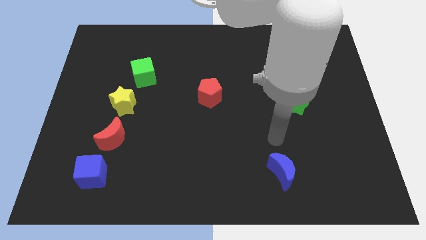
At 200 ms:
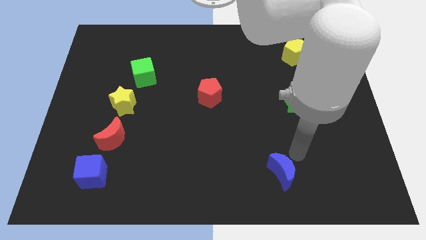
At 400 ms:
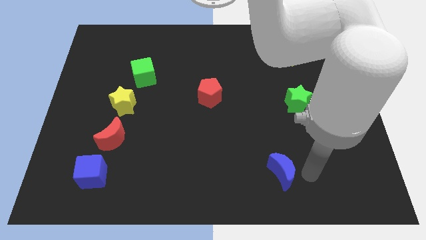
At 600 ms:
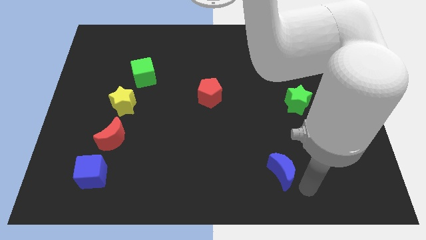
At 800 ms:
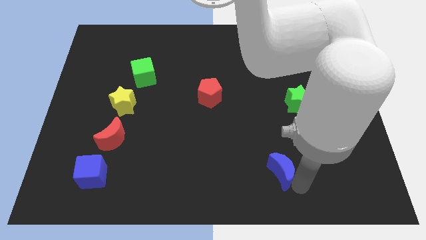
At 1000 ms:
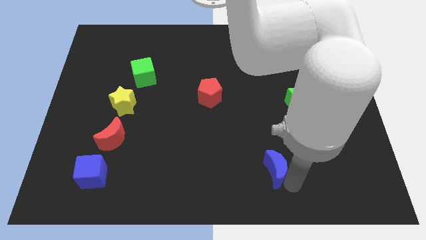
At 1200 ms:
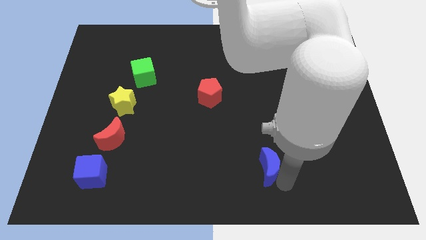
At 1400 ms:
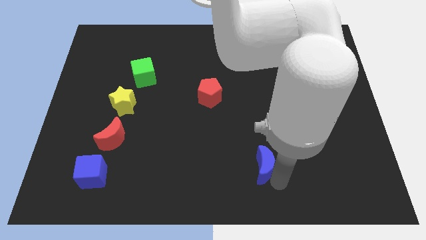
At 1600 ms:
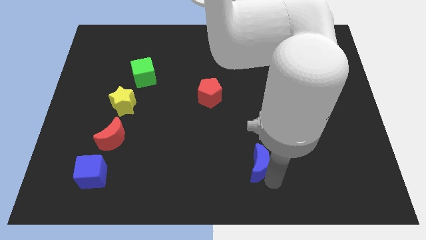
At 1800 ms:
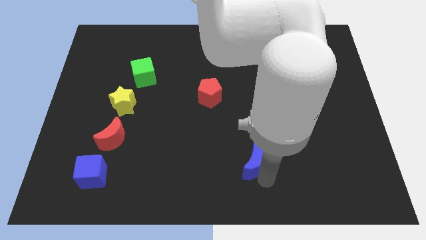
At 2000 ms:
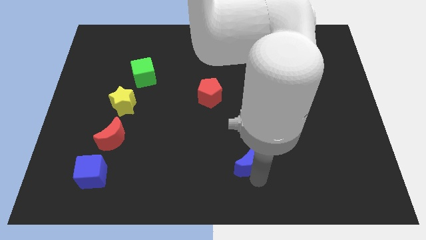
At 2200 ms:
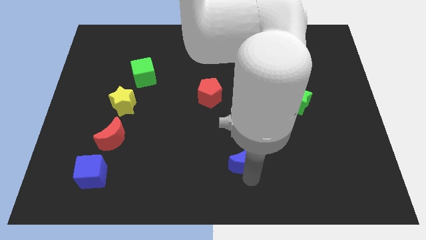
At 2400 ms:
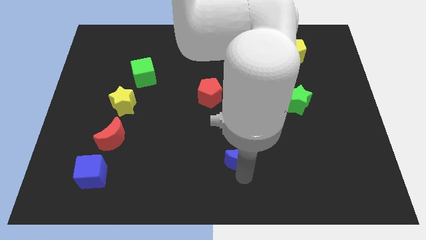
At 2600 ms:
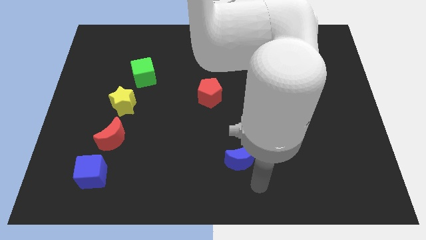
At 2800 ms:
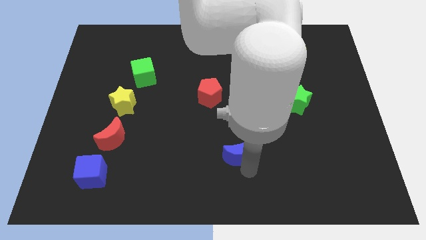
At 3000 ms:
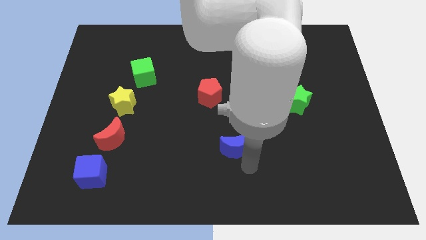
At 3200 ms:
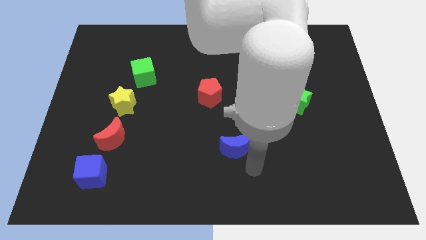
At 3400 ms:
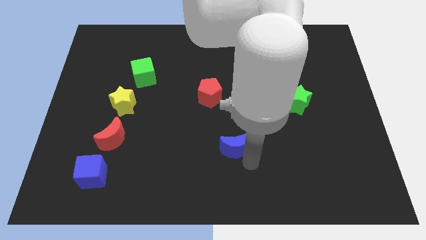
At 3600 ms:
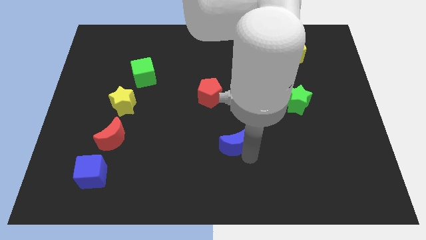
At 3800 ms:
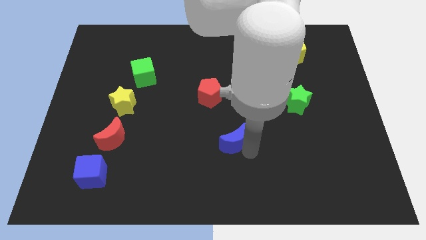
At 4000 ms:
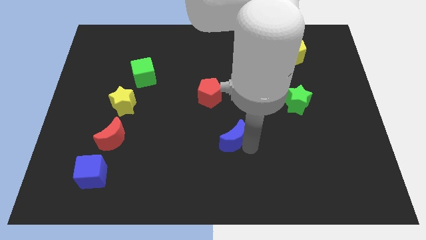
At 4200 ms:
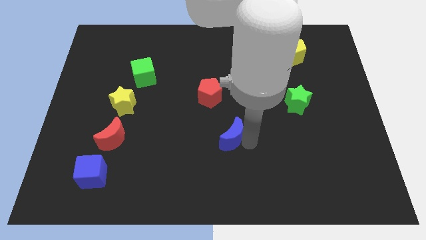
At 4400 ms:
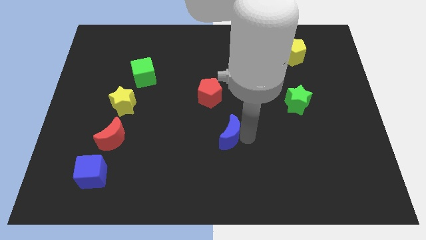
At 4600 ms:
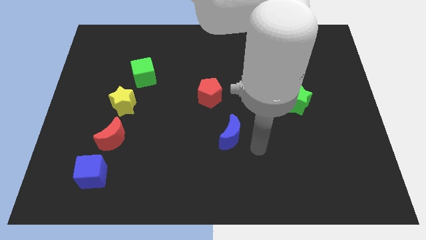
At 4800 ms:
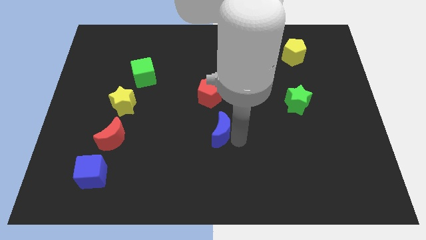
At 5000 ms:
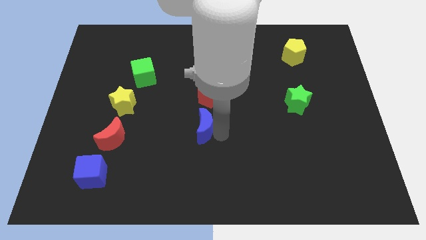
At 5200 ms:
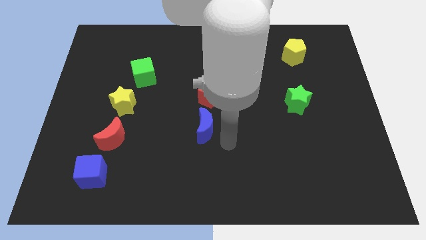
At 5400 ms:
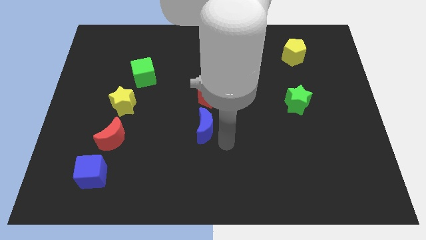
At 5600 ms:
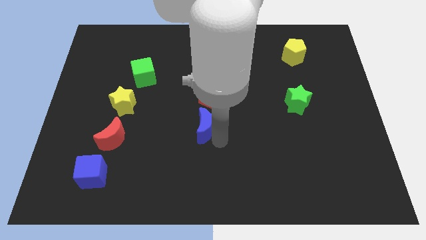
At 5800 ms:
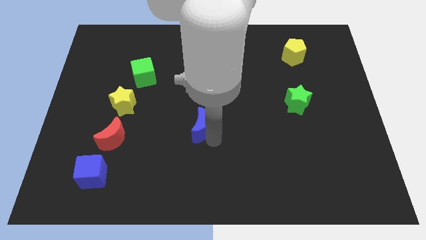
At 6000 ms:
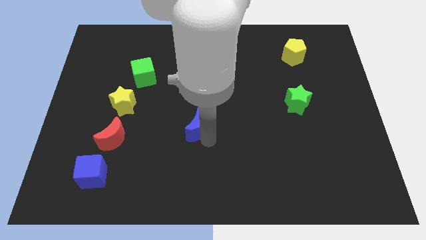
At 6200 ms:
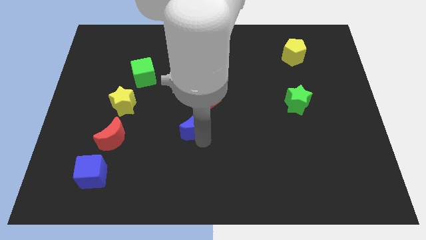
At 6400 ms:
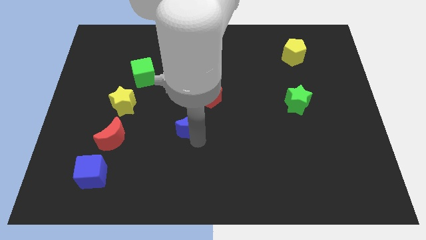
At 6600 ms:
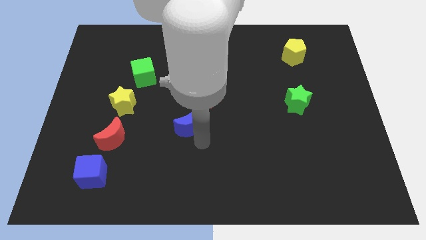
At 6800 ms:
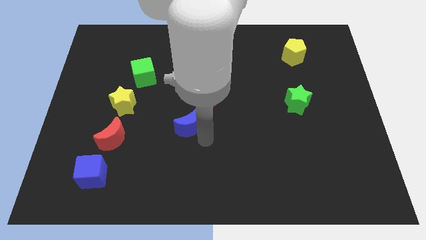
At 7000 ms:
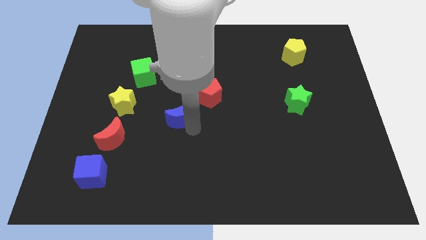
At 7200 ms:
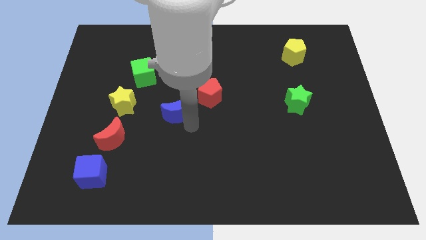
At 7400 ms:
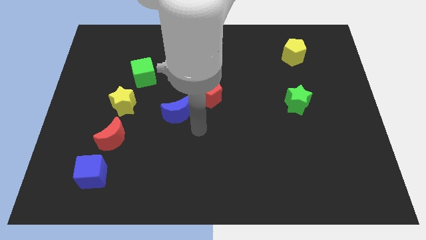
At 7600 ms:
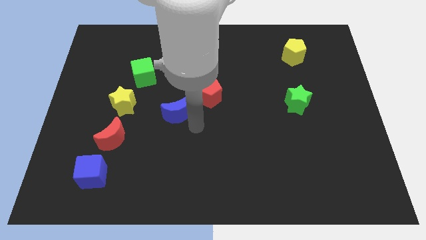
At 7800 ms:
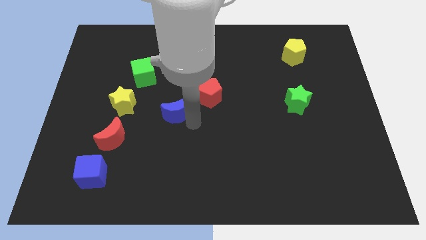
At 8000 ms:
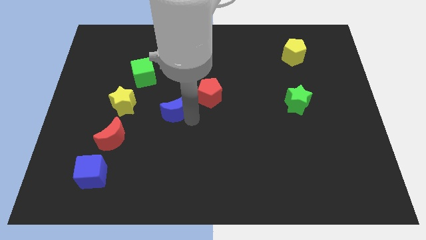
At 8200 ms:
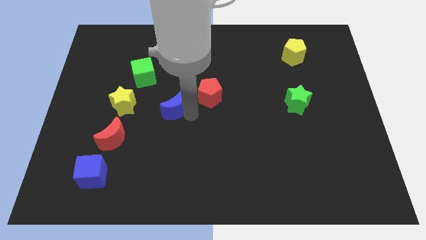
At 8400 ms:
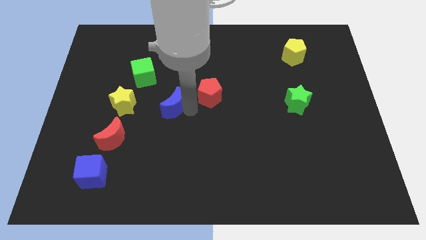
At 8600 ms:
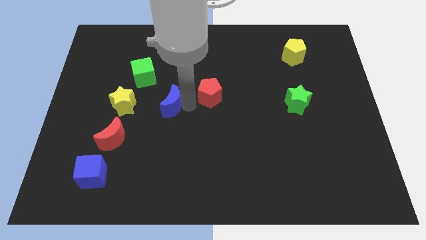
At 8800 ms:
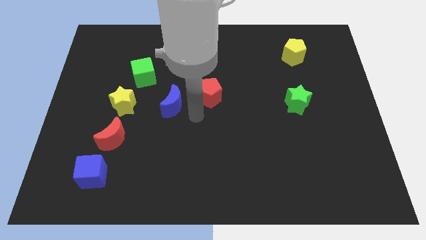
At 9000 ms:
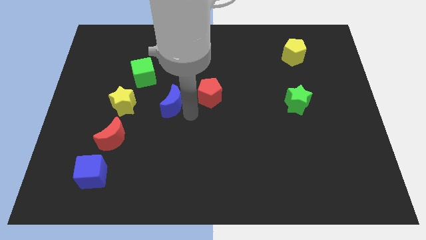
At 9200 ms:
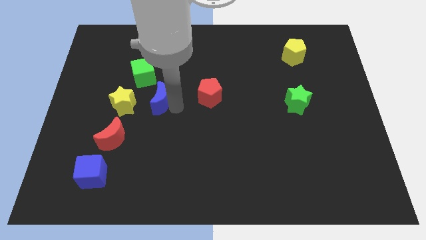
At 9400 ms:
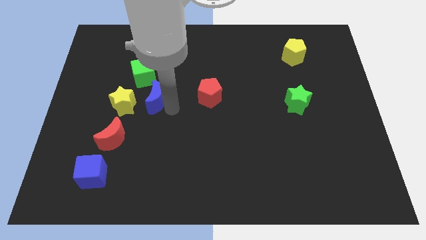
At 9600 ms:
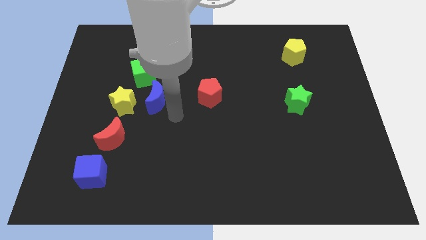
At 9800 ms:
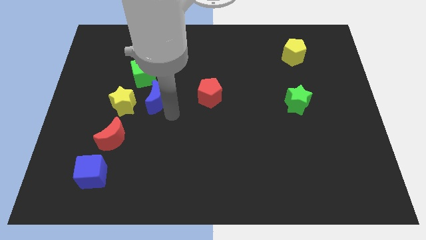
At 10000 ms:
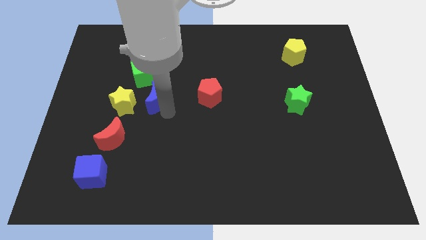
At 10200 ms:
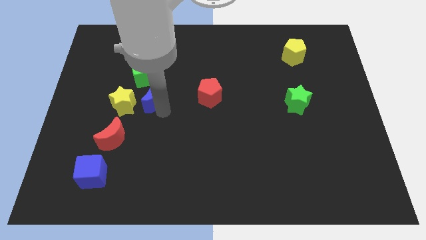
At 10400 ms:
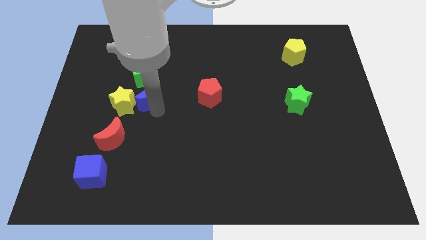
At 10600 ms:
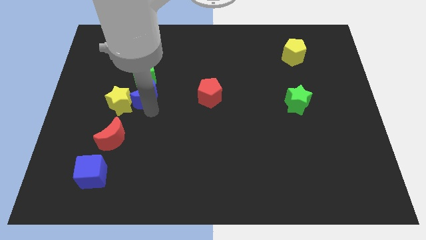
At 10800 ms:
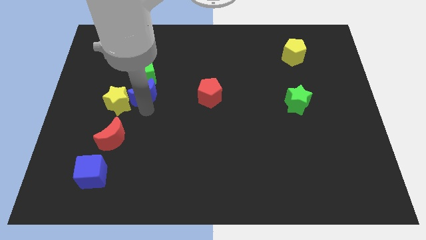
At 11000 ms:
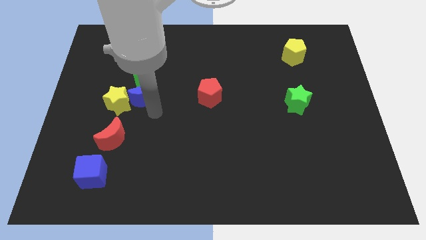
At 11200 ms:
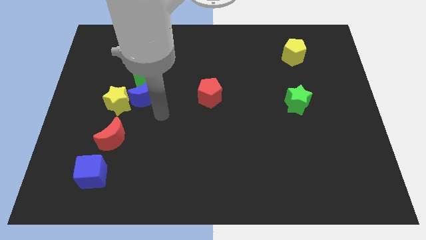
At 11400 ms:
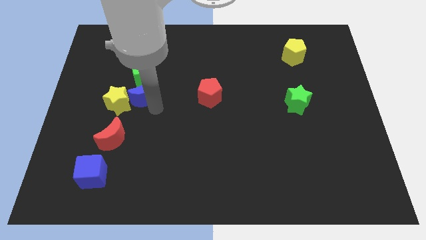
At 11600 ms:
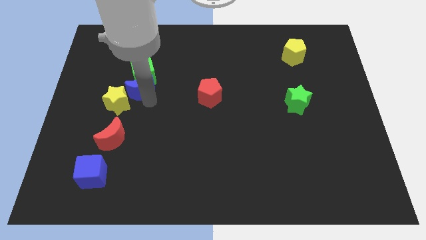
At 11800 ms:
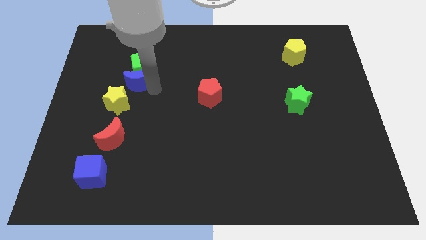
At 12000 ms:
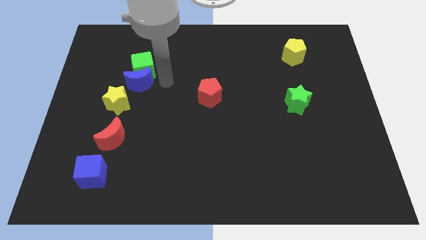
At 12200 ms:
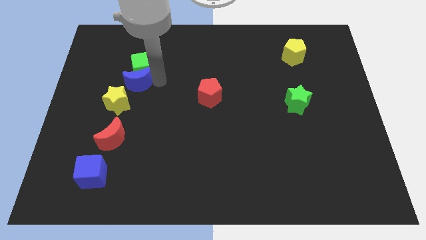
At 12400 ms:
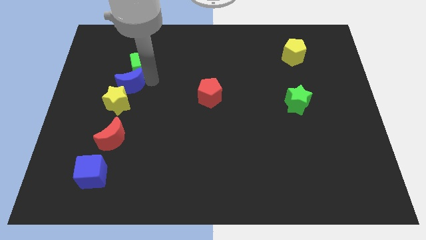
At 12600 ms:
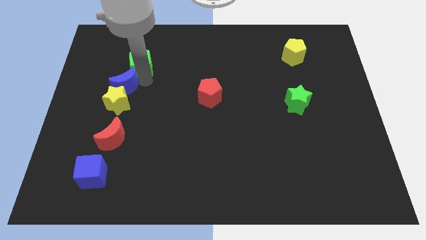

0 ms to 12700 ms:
slide the blue moon to the top left side of the yellow star

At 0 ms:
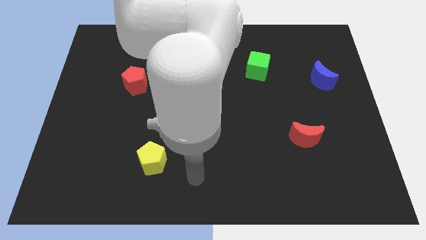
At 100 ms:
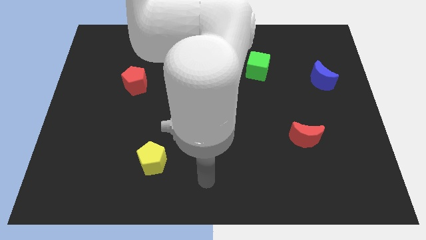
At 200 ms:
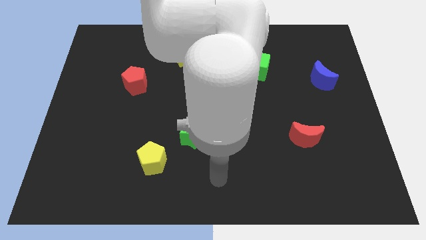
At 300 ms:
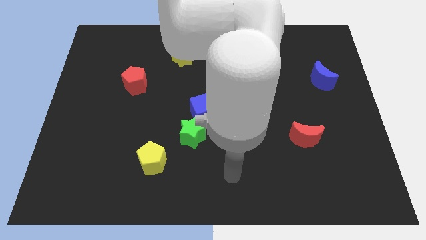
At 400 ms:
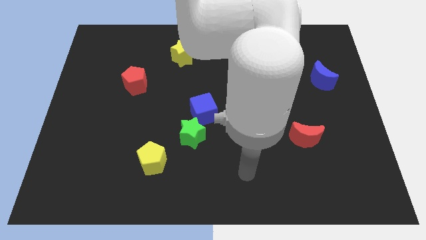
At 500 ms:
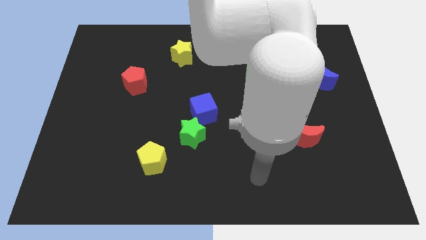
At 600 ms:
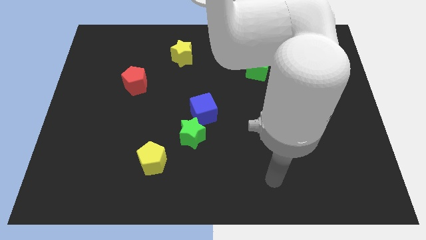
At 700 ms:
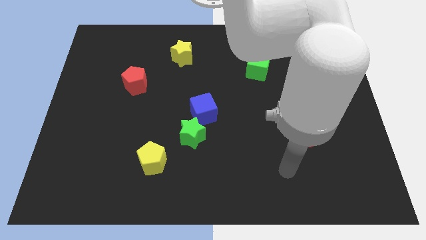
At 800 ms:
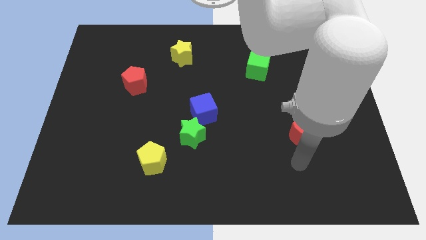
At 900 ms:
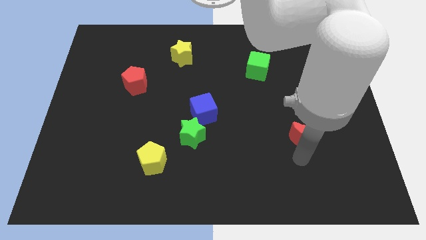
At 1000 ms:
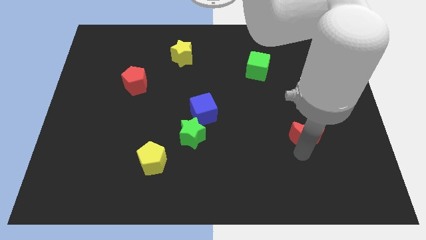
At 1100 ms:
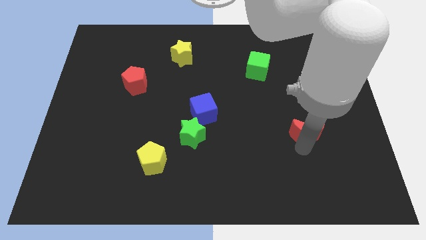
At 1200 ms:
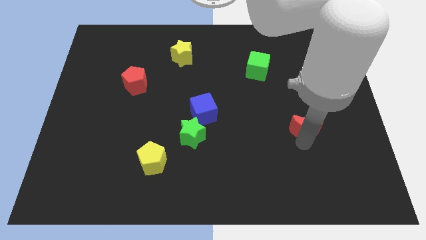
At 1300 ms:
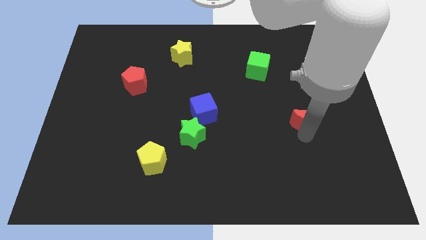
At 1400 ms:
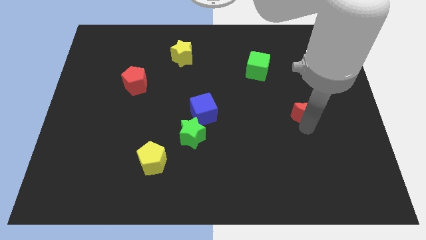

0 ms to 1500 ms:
slide the red moon diagonally down and to the left of the blue moon

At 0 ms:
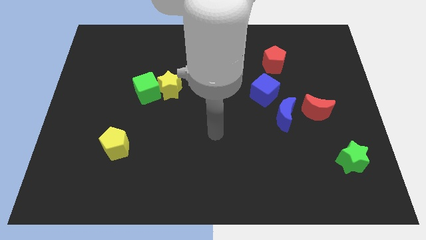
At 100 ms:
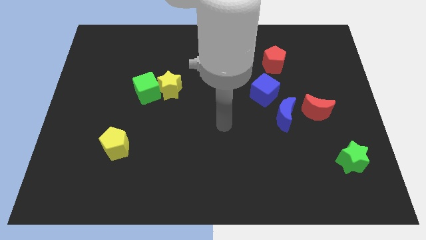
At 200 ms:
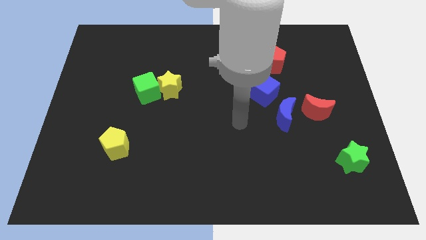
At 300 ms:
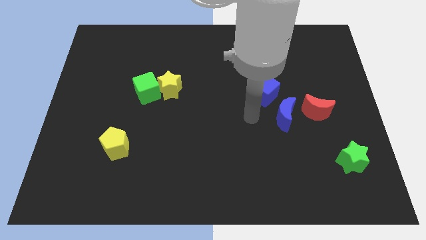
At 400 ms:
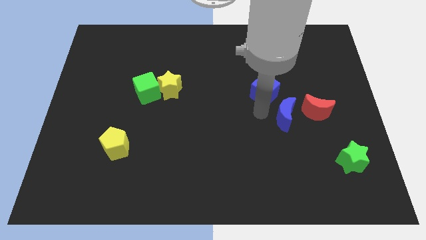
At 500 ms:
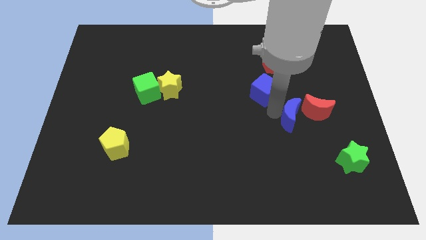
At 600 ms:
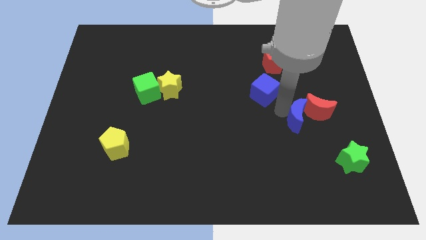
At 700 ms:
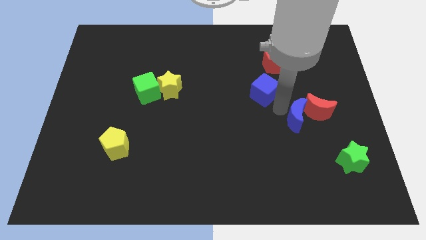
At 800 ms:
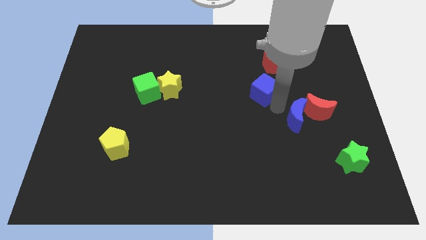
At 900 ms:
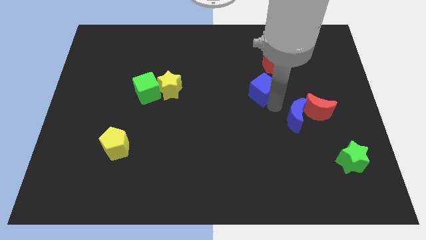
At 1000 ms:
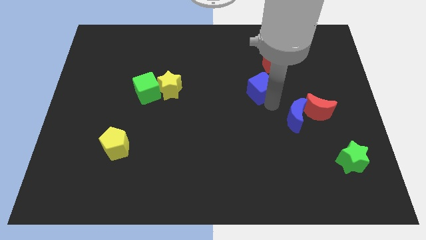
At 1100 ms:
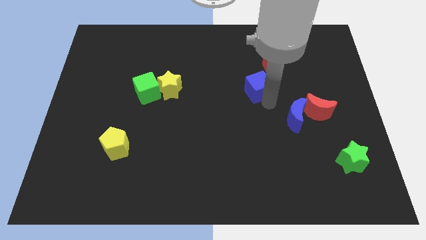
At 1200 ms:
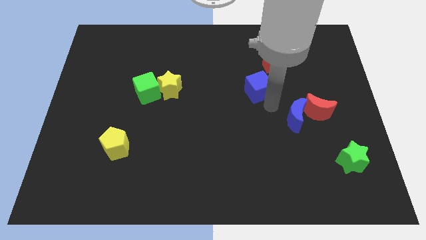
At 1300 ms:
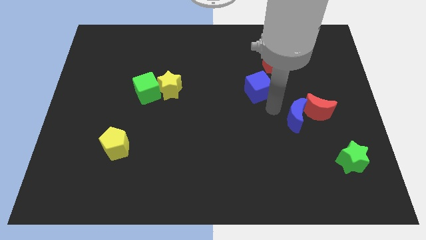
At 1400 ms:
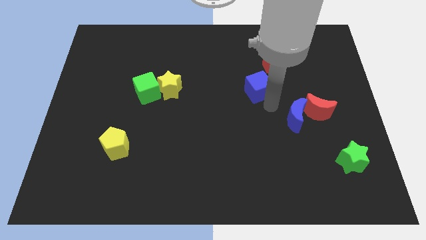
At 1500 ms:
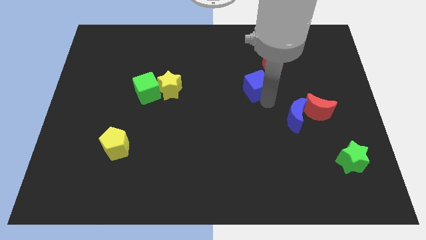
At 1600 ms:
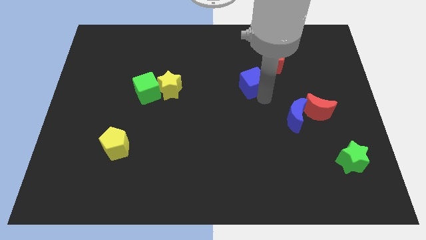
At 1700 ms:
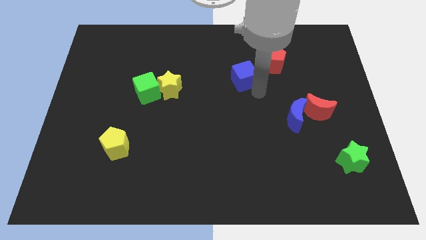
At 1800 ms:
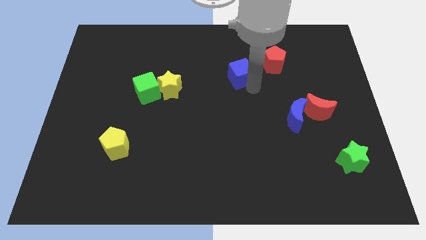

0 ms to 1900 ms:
slide the blue cube to the left side of the red pentagon
